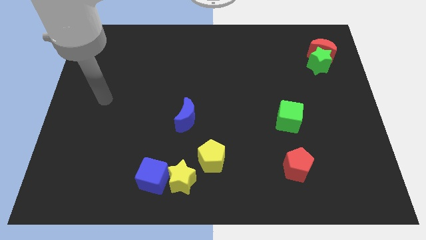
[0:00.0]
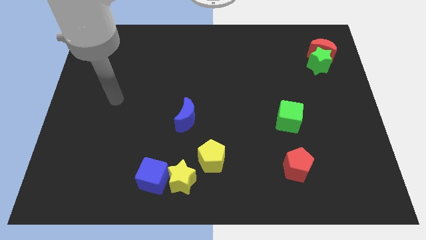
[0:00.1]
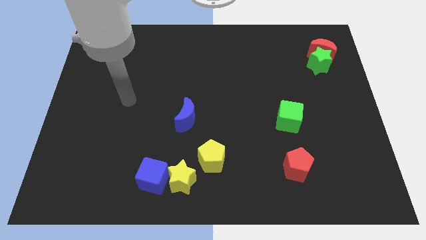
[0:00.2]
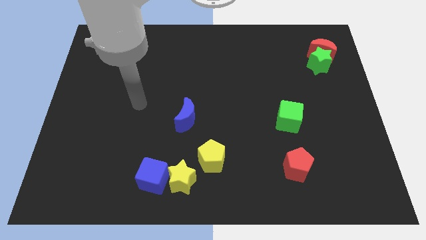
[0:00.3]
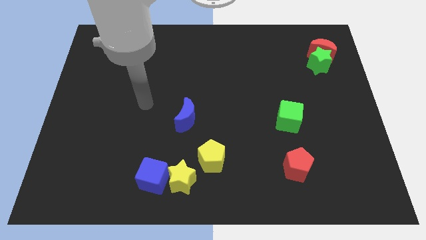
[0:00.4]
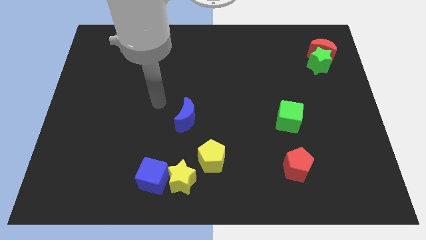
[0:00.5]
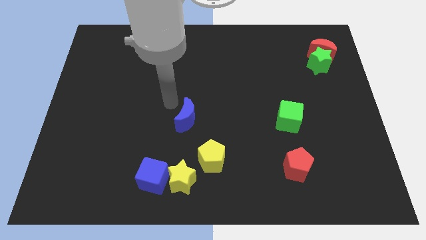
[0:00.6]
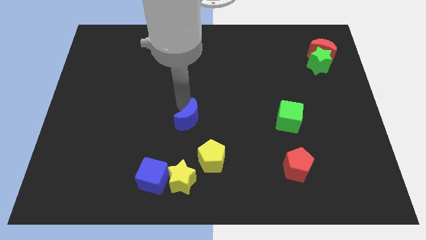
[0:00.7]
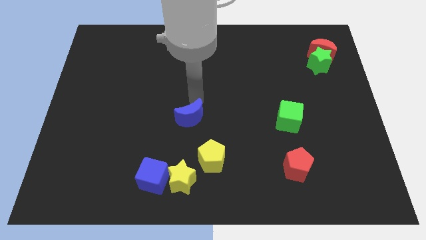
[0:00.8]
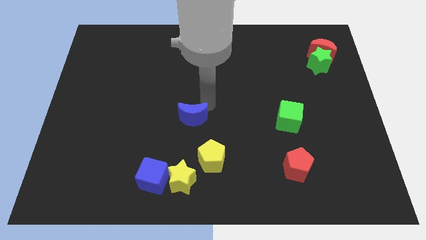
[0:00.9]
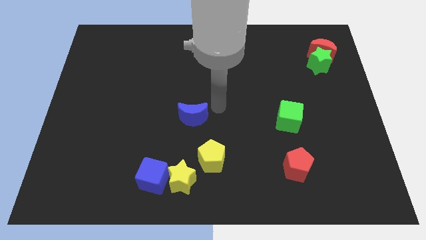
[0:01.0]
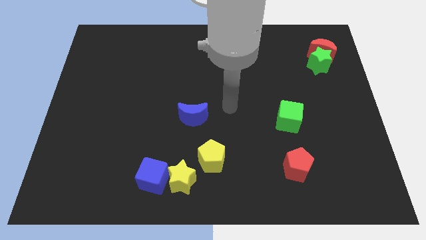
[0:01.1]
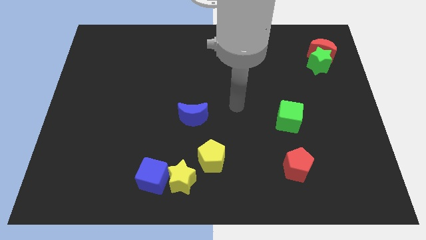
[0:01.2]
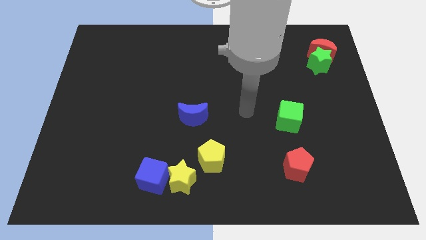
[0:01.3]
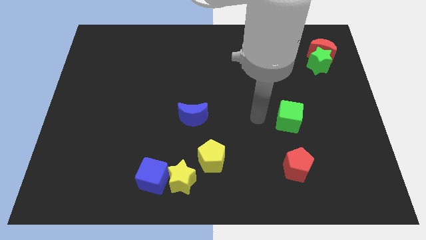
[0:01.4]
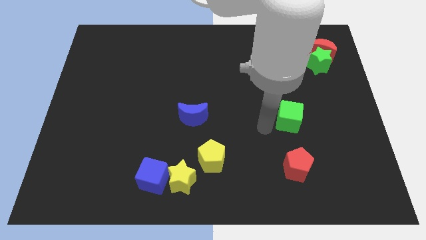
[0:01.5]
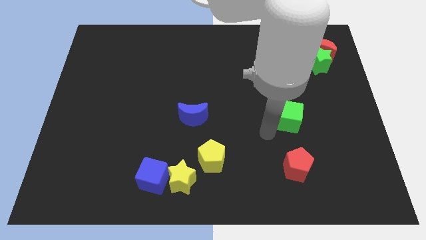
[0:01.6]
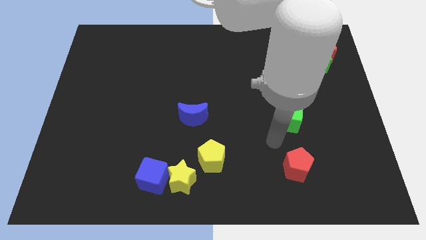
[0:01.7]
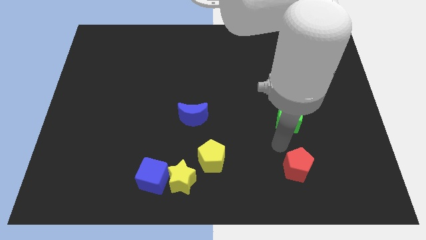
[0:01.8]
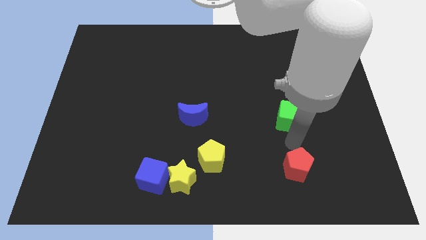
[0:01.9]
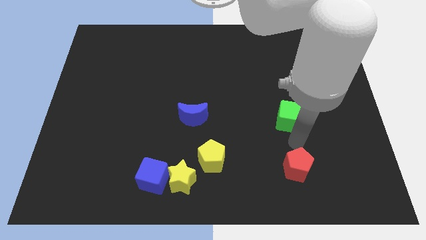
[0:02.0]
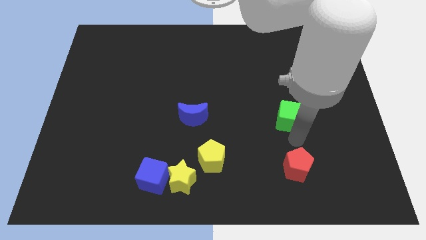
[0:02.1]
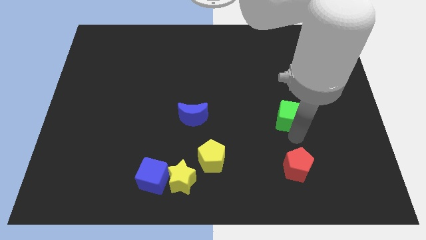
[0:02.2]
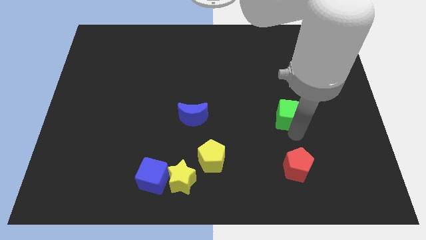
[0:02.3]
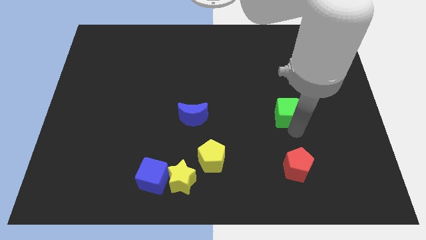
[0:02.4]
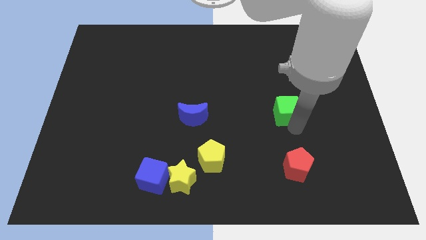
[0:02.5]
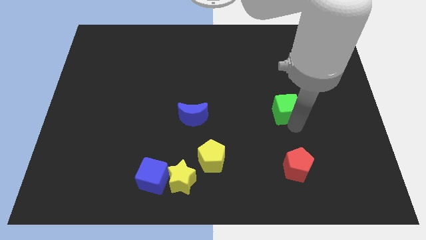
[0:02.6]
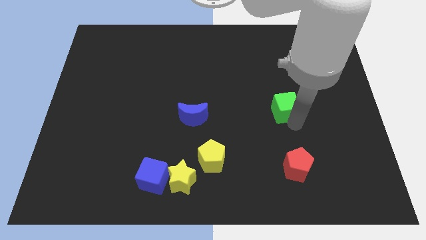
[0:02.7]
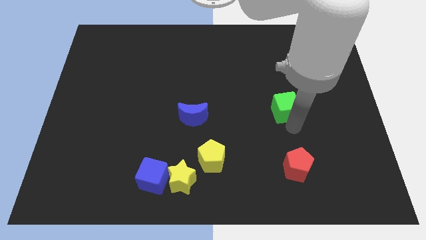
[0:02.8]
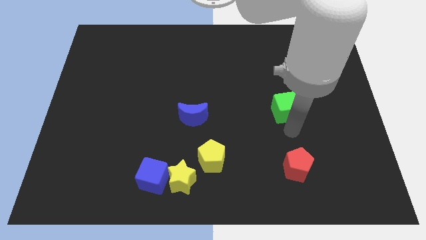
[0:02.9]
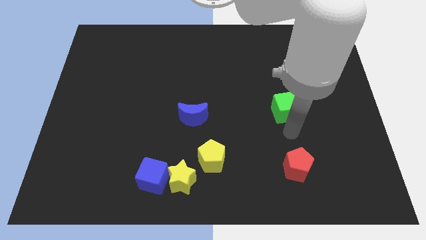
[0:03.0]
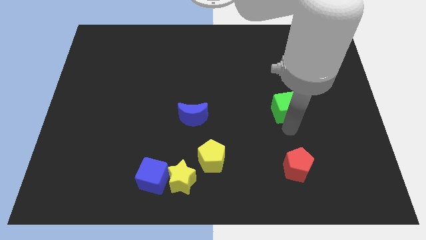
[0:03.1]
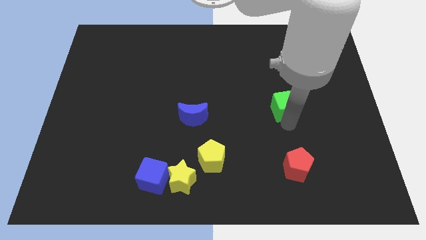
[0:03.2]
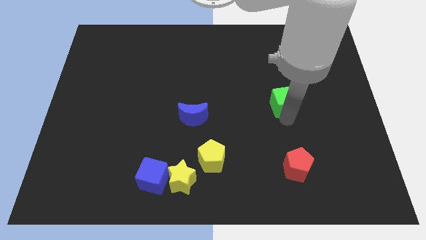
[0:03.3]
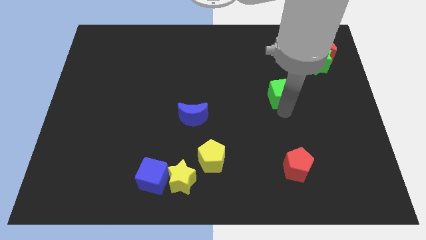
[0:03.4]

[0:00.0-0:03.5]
slightly slide the green cube up

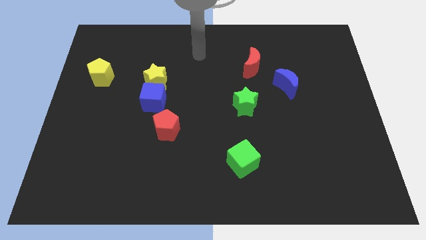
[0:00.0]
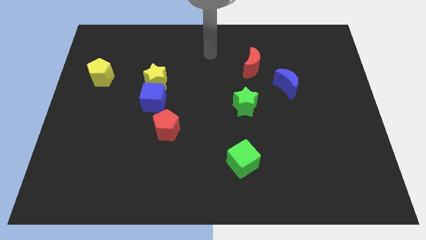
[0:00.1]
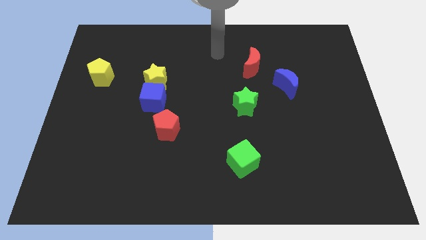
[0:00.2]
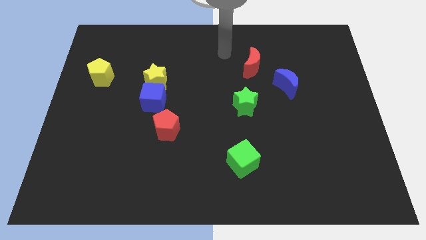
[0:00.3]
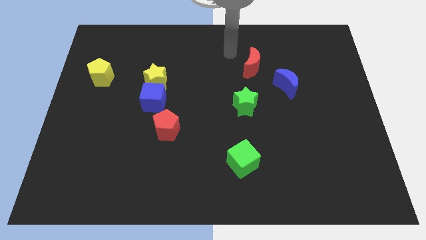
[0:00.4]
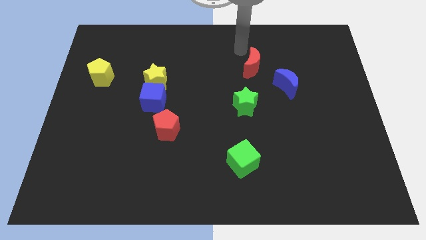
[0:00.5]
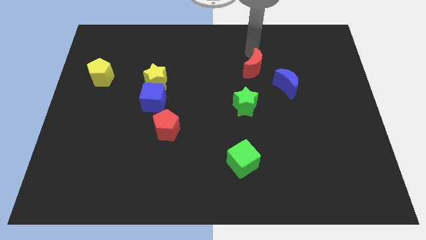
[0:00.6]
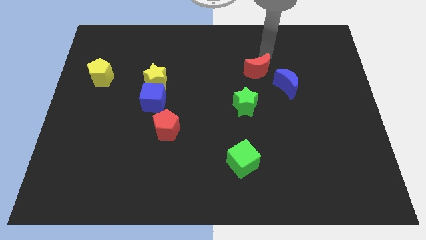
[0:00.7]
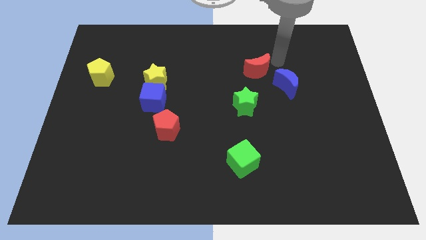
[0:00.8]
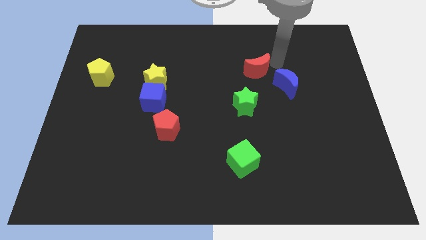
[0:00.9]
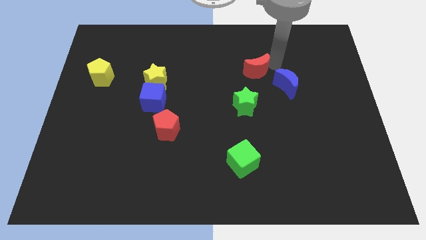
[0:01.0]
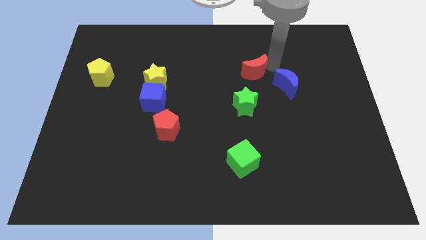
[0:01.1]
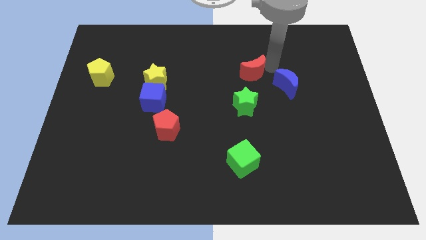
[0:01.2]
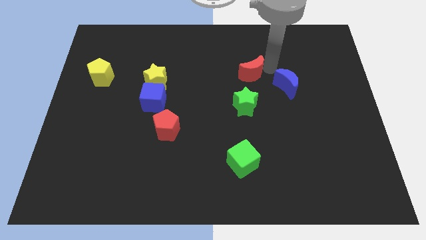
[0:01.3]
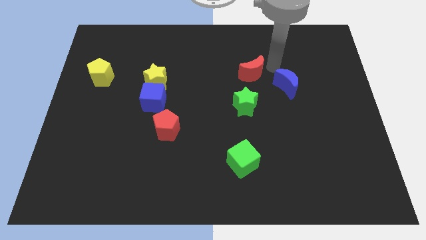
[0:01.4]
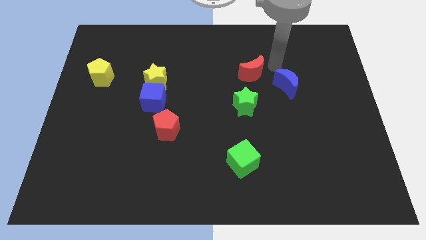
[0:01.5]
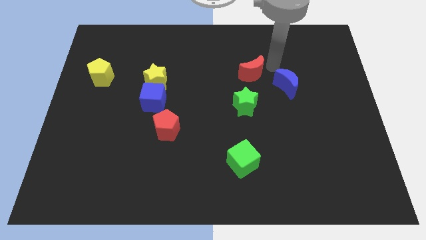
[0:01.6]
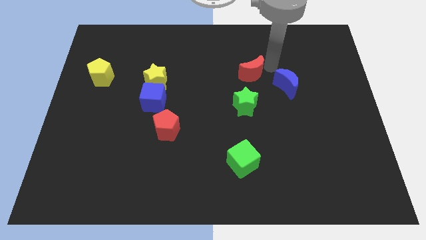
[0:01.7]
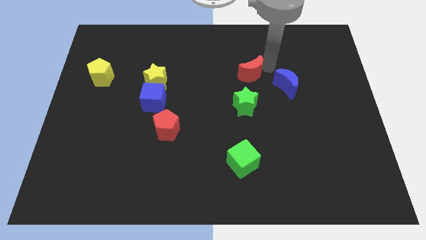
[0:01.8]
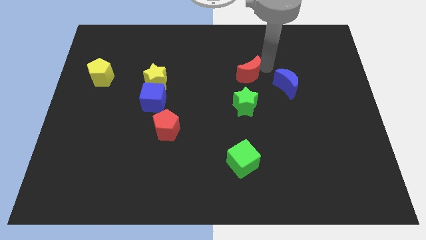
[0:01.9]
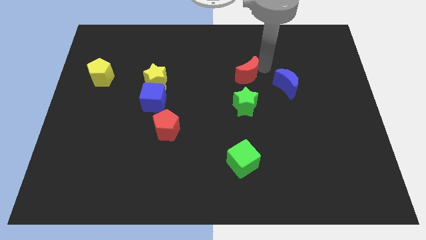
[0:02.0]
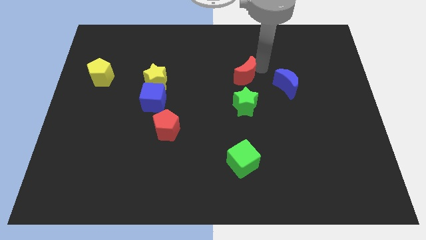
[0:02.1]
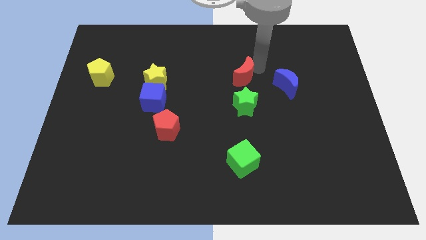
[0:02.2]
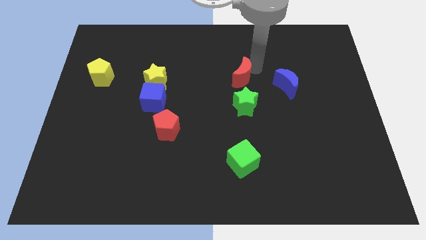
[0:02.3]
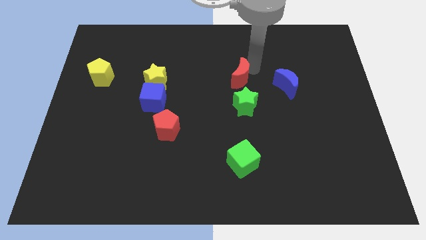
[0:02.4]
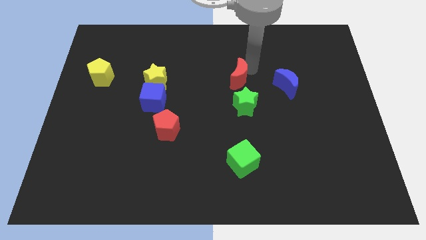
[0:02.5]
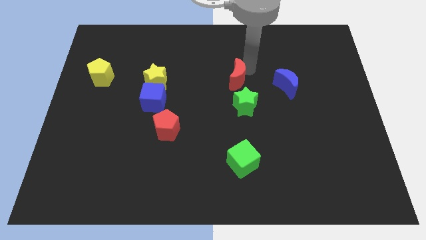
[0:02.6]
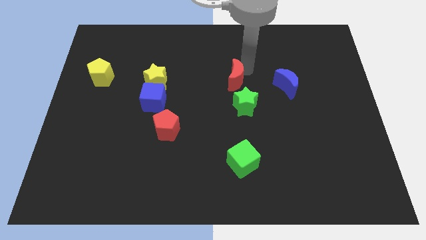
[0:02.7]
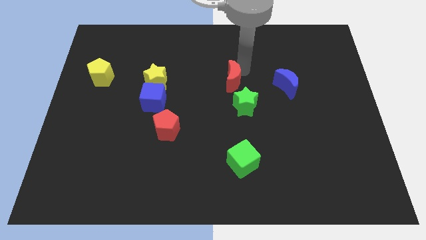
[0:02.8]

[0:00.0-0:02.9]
slide the red moon diagonally downwards and left a little

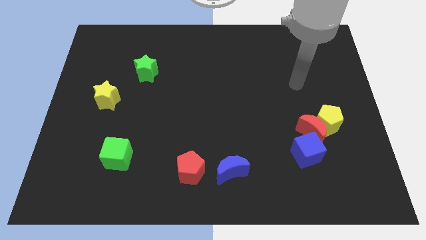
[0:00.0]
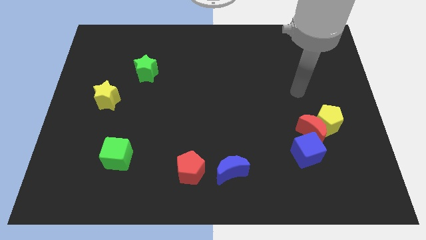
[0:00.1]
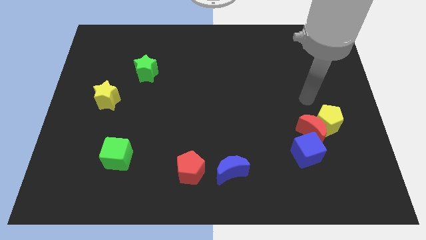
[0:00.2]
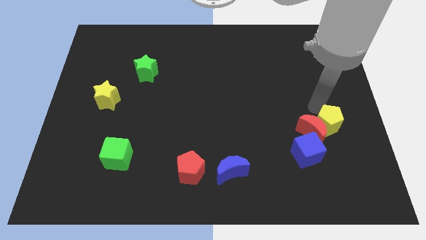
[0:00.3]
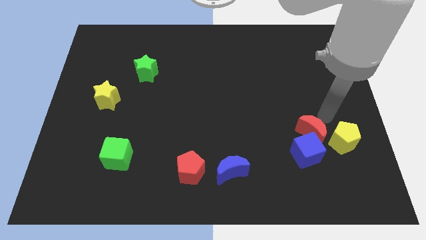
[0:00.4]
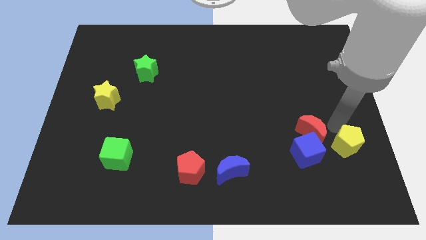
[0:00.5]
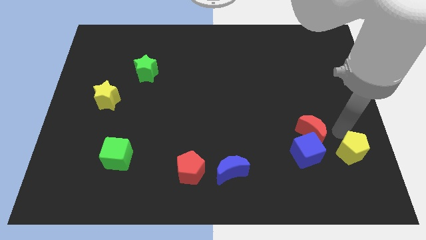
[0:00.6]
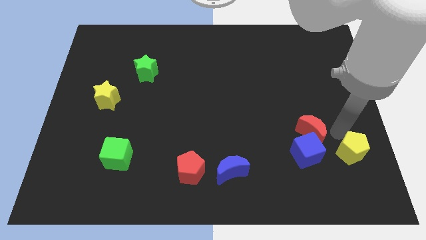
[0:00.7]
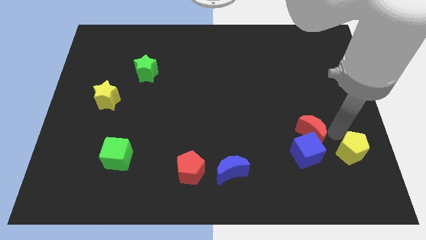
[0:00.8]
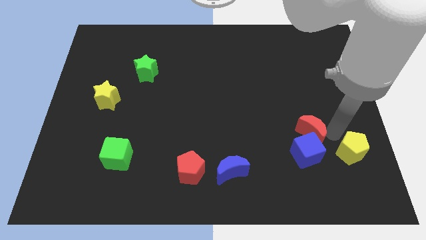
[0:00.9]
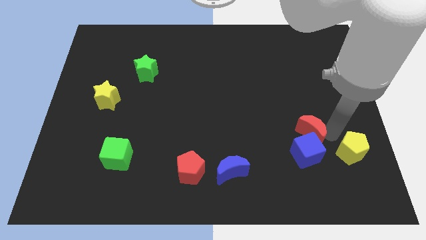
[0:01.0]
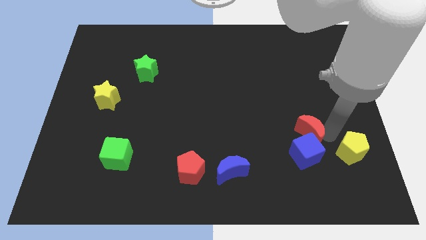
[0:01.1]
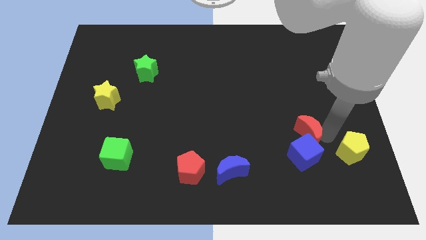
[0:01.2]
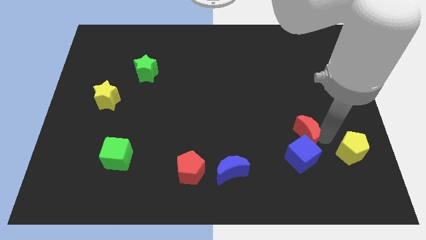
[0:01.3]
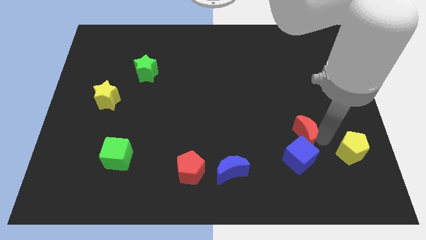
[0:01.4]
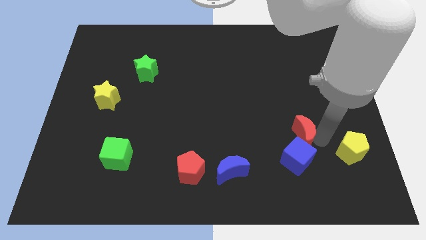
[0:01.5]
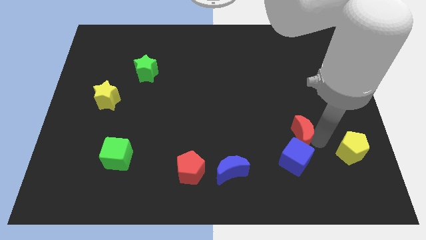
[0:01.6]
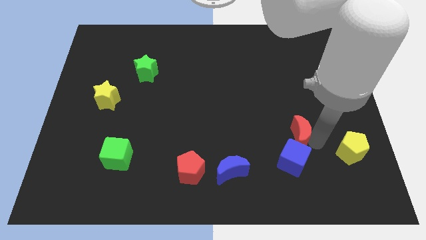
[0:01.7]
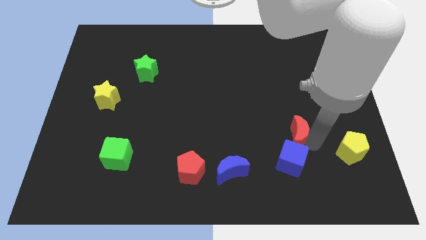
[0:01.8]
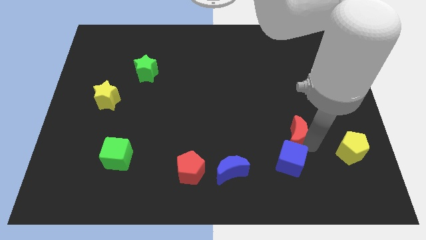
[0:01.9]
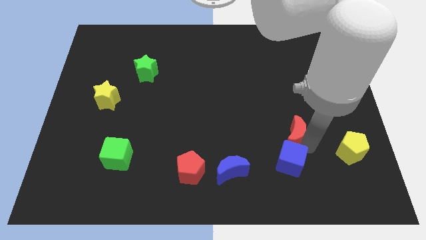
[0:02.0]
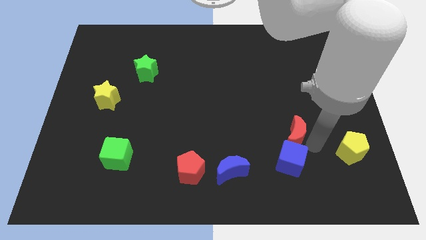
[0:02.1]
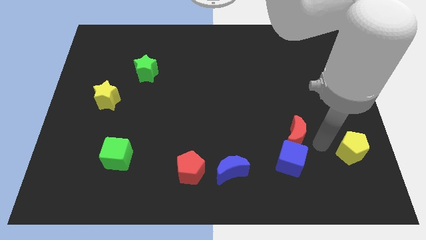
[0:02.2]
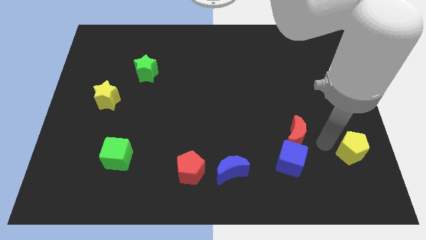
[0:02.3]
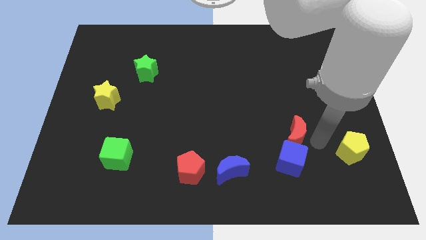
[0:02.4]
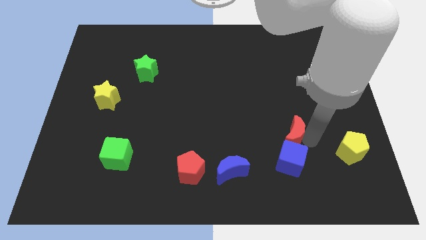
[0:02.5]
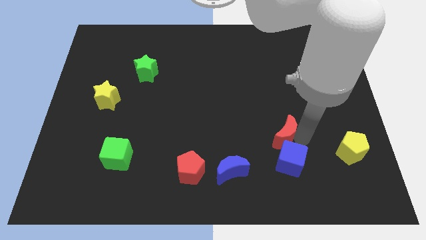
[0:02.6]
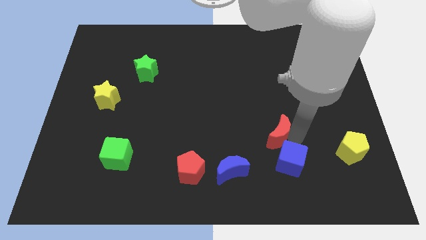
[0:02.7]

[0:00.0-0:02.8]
slide the red moon to the left slightly
